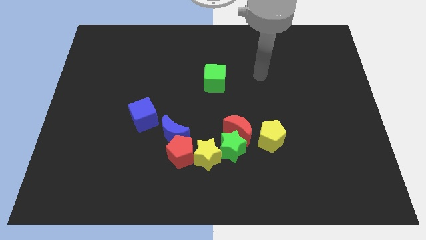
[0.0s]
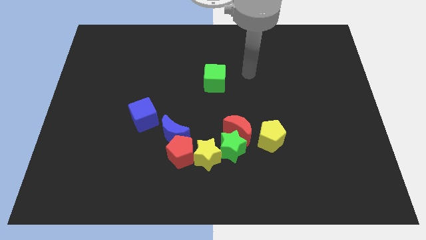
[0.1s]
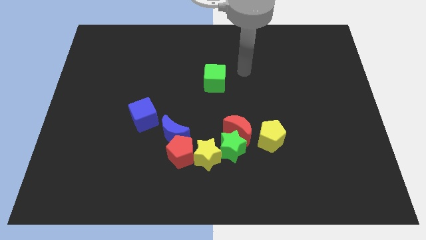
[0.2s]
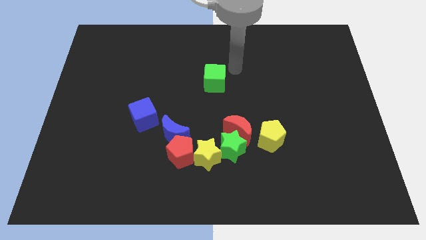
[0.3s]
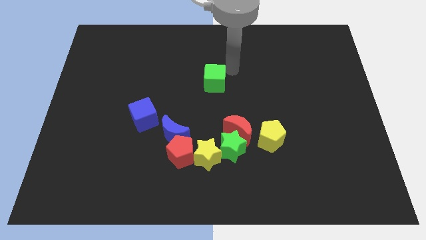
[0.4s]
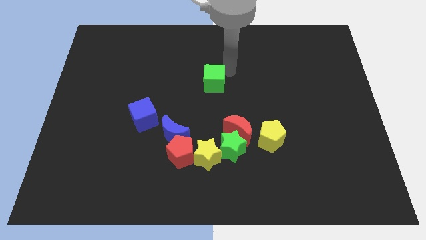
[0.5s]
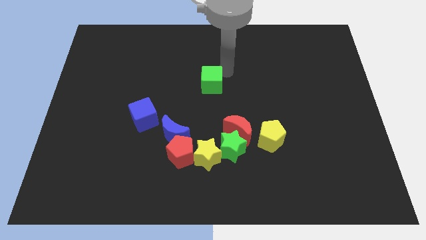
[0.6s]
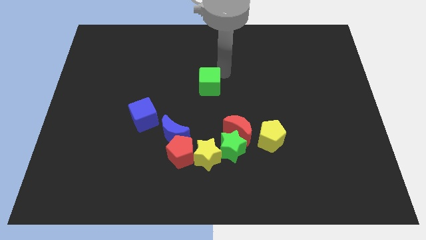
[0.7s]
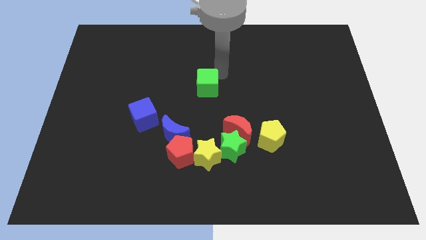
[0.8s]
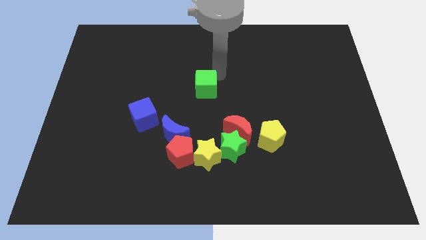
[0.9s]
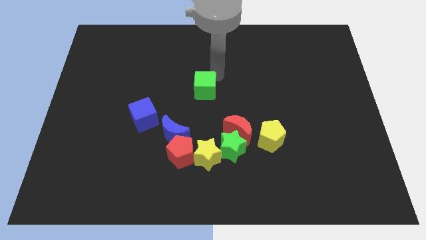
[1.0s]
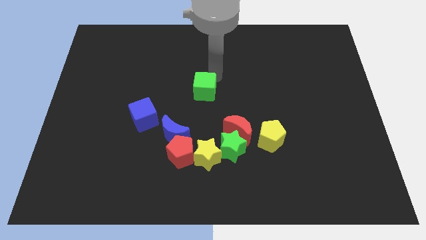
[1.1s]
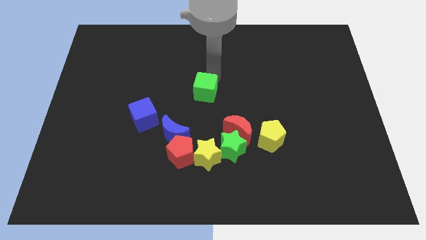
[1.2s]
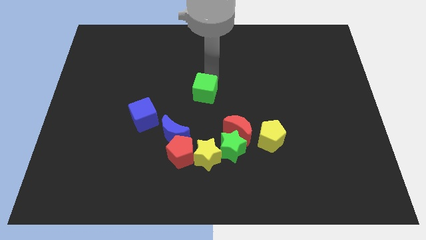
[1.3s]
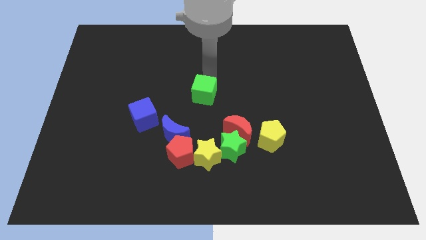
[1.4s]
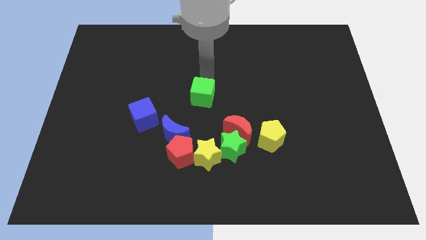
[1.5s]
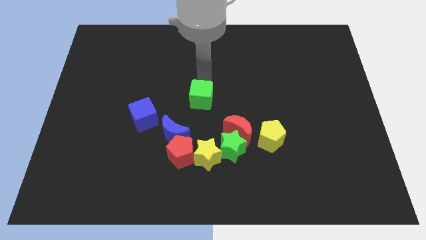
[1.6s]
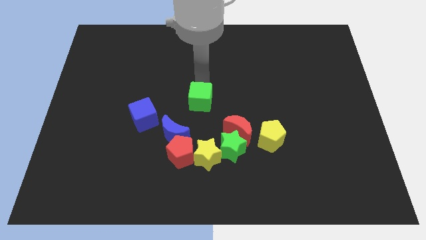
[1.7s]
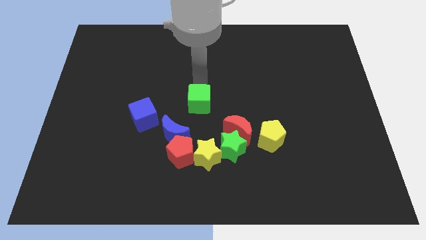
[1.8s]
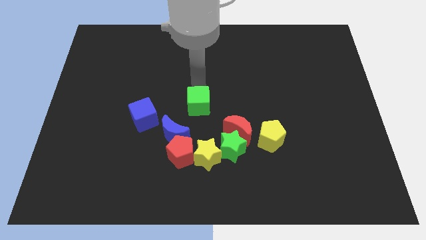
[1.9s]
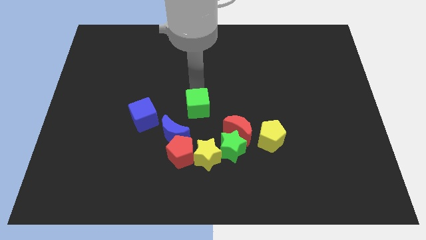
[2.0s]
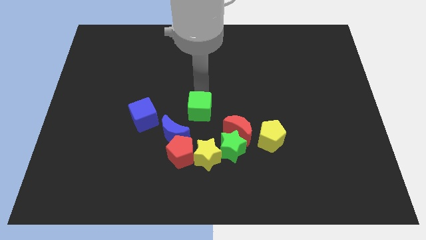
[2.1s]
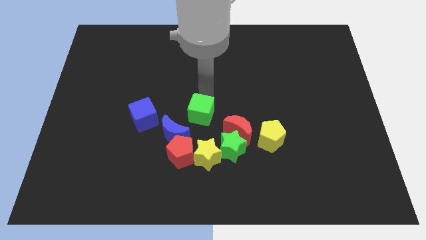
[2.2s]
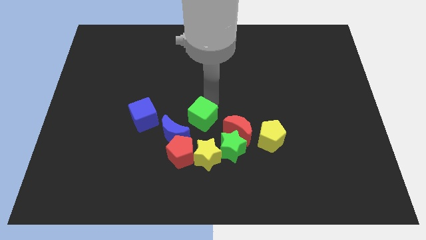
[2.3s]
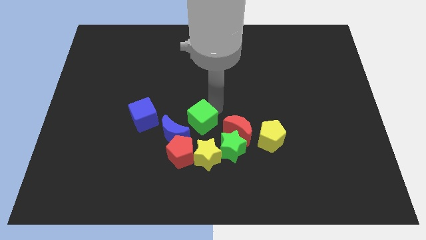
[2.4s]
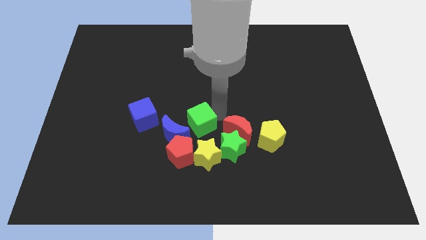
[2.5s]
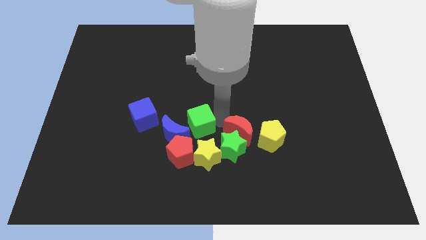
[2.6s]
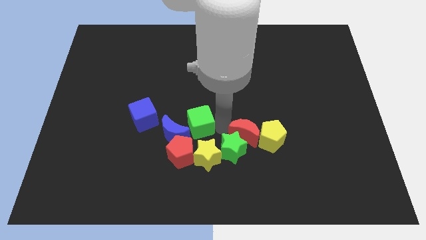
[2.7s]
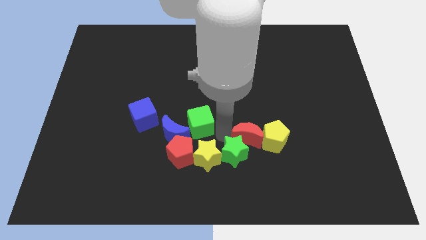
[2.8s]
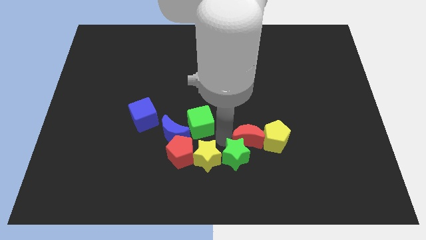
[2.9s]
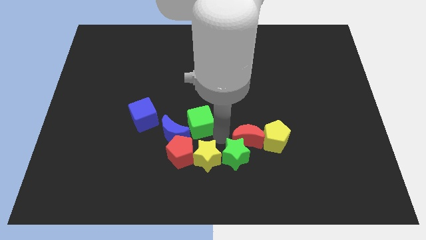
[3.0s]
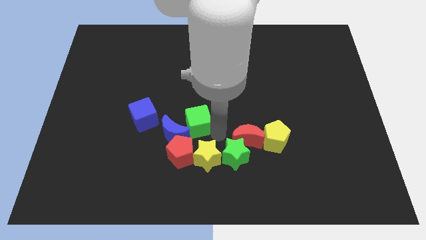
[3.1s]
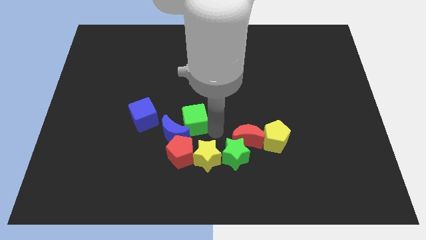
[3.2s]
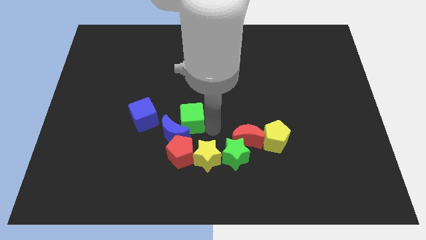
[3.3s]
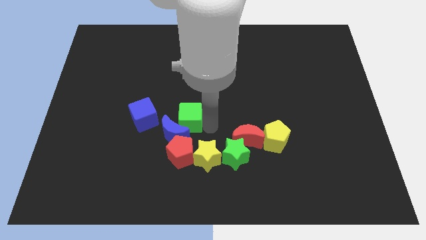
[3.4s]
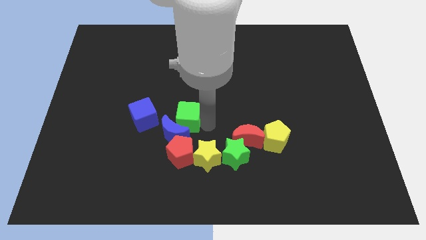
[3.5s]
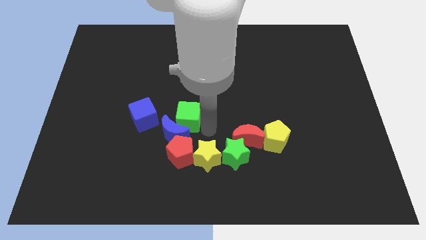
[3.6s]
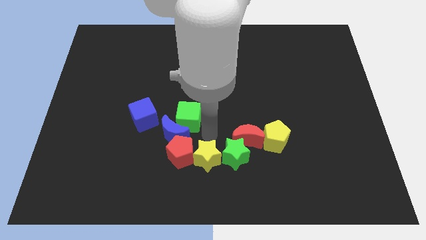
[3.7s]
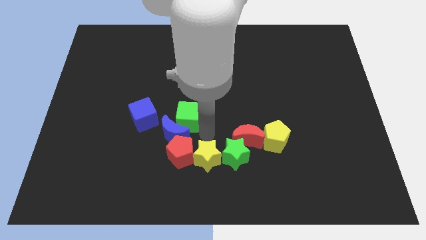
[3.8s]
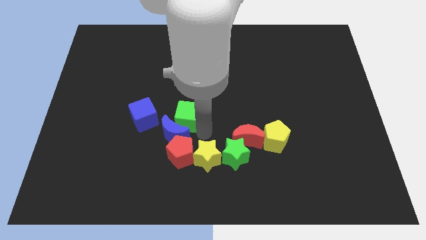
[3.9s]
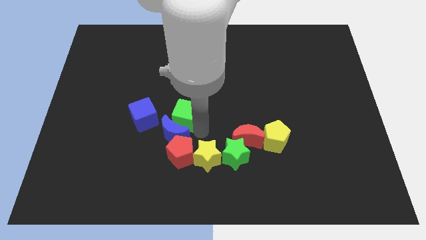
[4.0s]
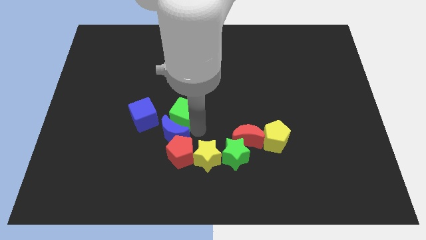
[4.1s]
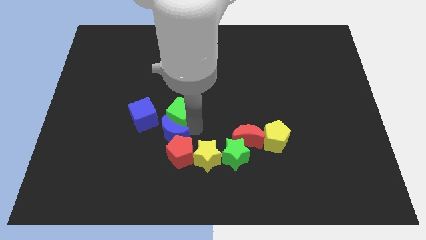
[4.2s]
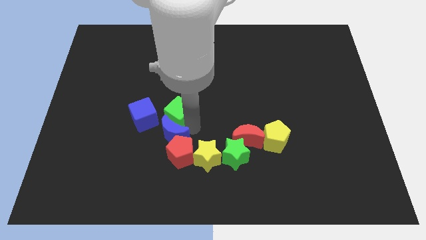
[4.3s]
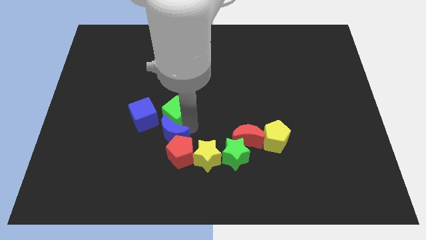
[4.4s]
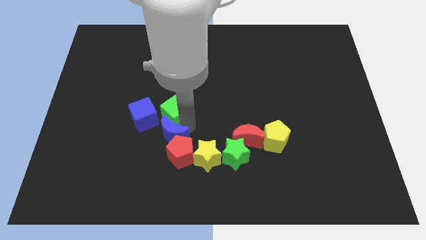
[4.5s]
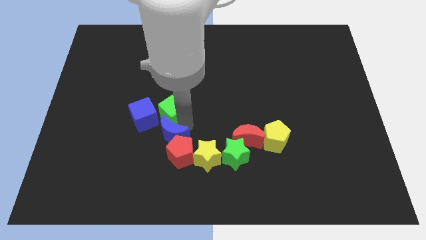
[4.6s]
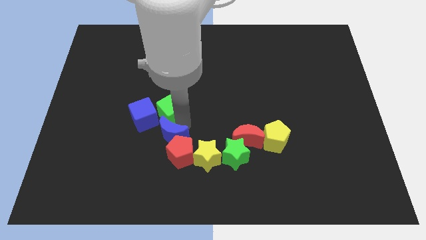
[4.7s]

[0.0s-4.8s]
slide the green cube to the blue cube

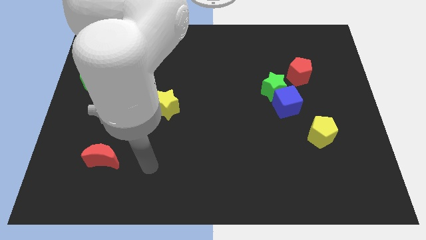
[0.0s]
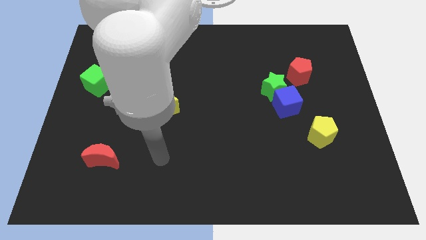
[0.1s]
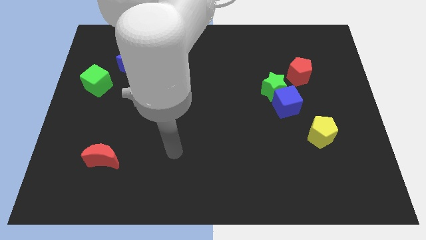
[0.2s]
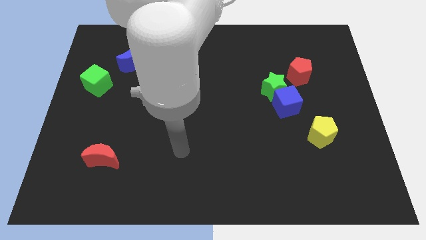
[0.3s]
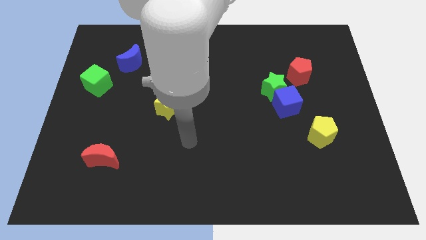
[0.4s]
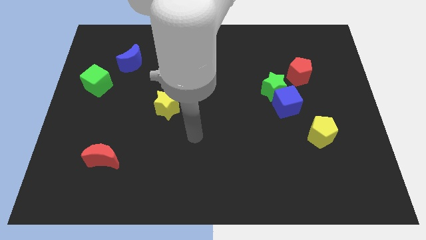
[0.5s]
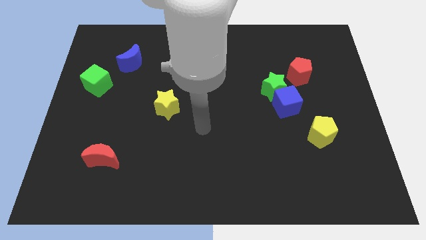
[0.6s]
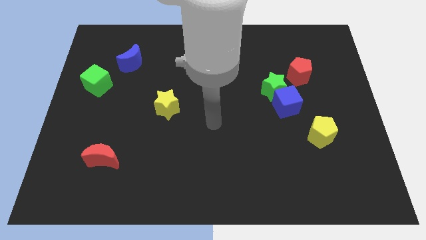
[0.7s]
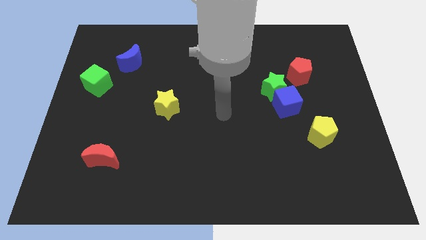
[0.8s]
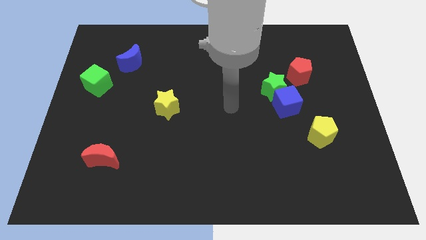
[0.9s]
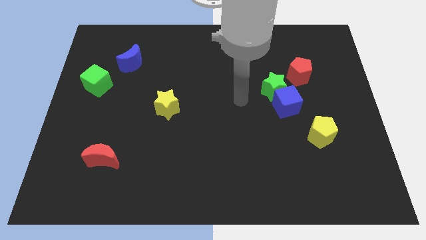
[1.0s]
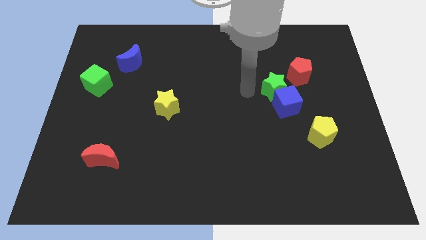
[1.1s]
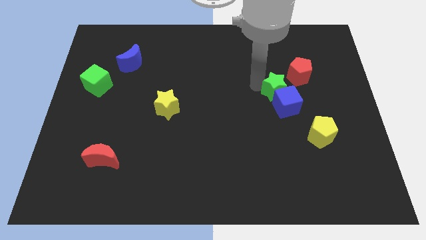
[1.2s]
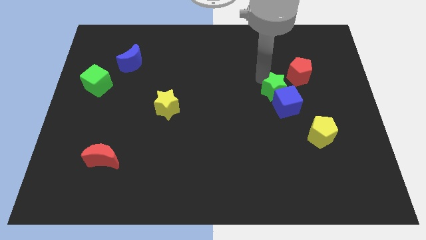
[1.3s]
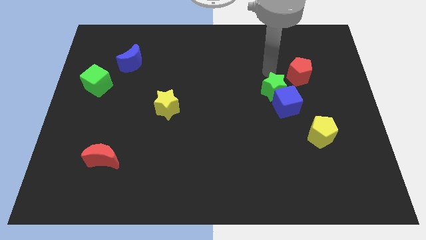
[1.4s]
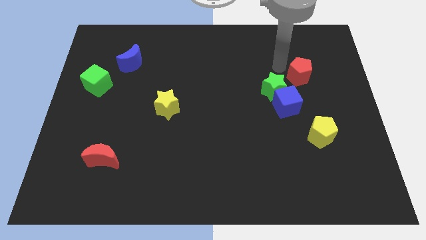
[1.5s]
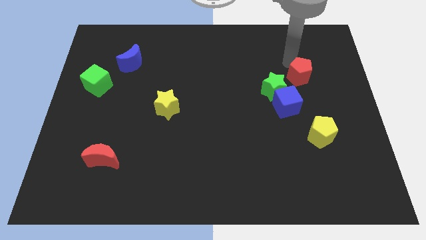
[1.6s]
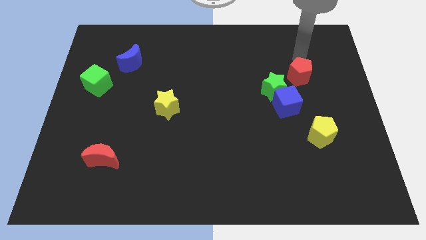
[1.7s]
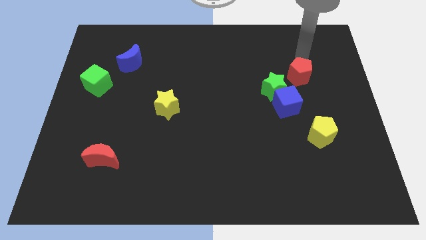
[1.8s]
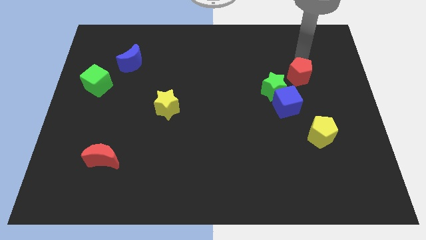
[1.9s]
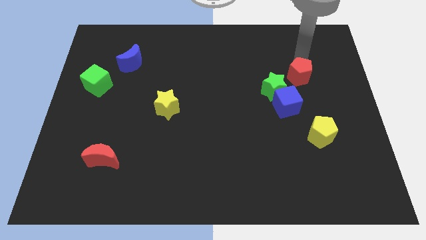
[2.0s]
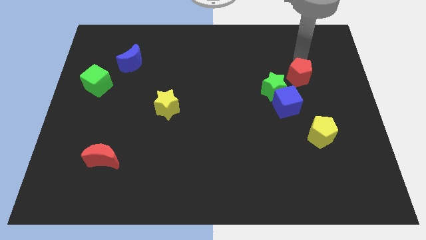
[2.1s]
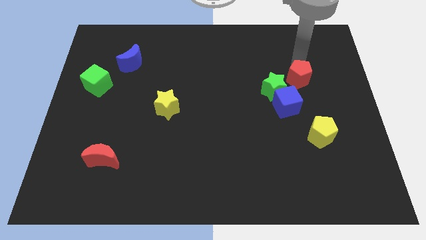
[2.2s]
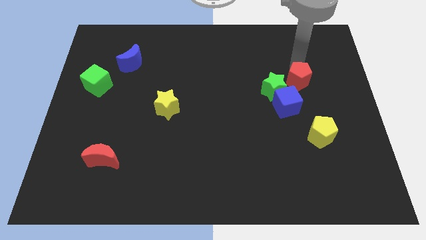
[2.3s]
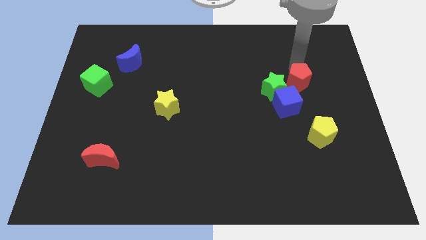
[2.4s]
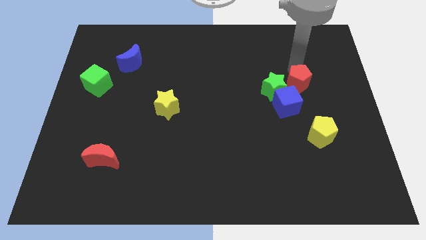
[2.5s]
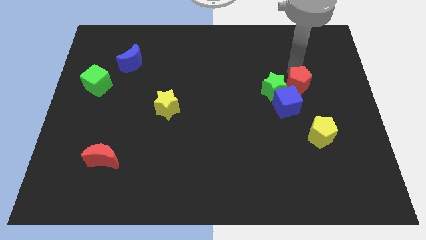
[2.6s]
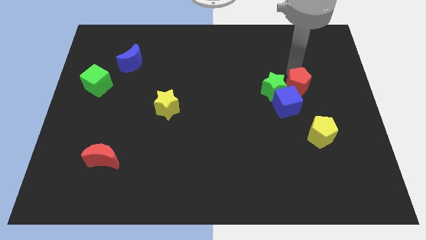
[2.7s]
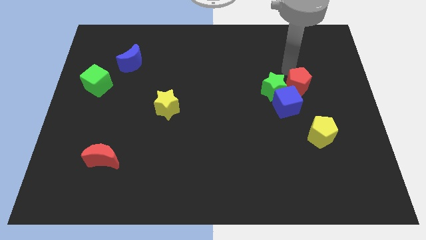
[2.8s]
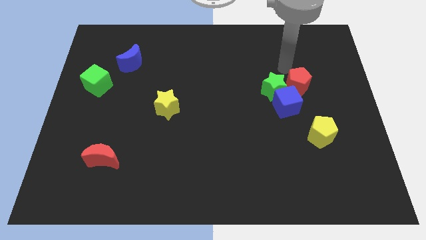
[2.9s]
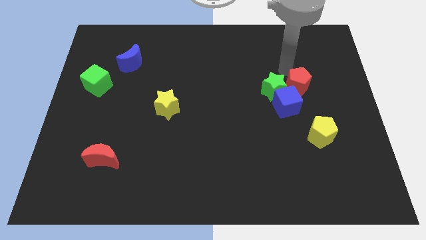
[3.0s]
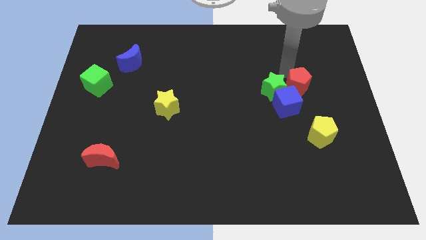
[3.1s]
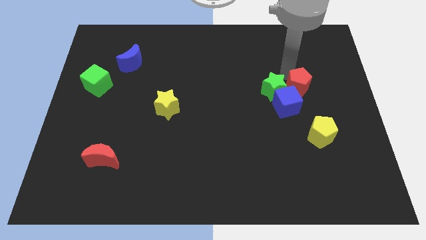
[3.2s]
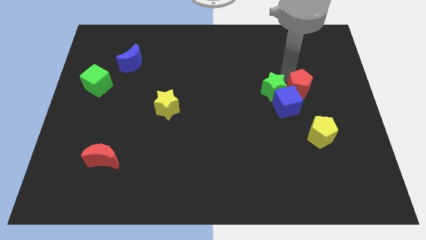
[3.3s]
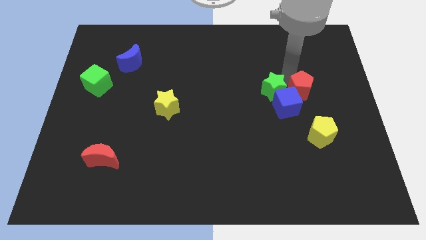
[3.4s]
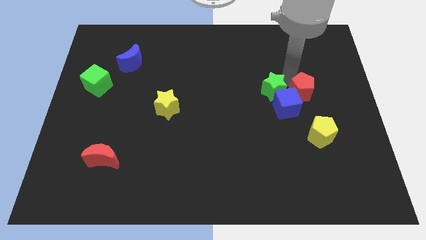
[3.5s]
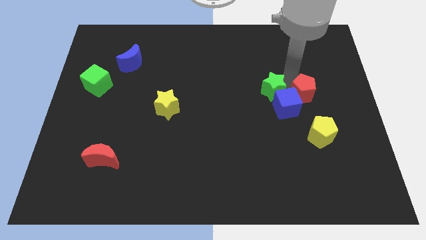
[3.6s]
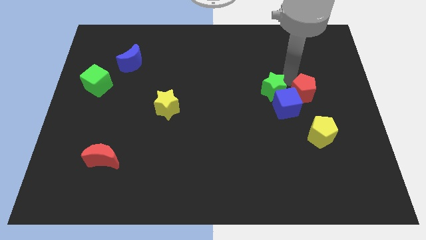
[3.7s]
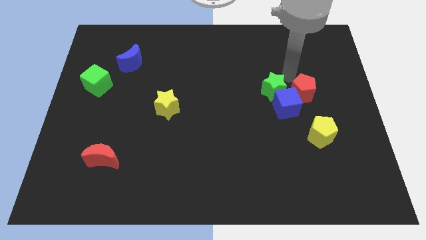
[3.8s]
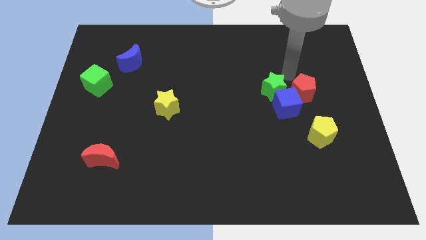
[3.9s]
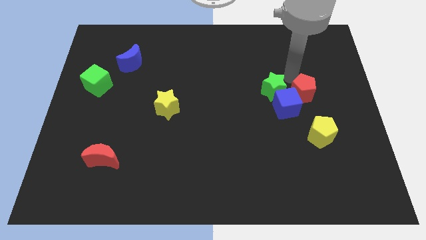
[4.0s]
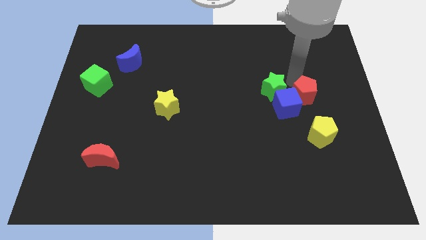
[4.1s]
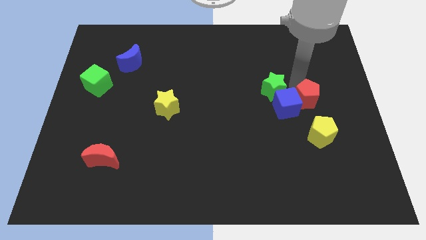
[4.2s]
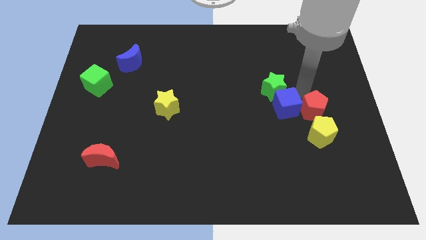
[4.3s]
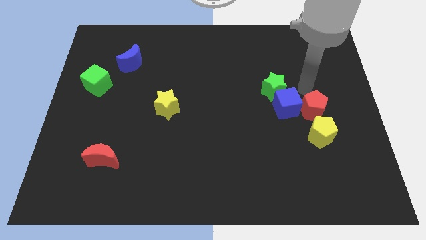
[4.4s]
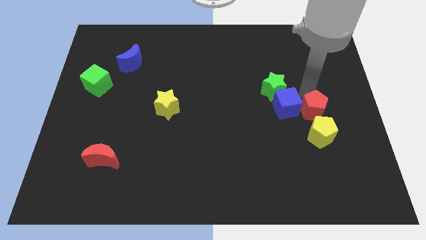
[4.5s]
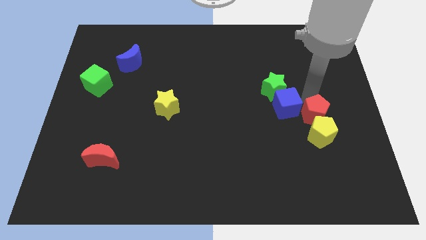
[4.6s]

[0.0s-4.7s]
slide the red pentagon close to the yellow pentagon
